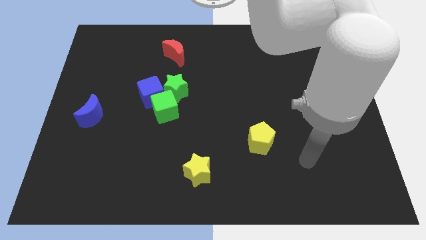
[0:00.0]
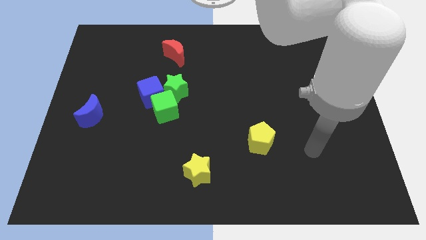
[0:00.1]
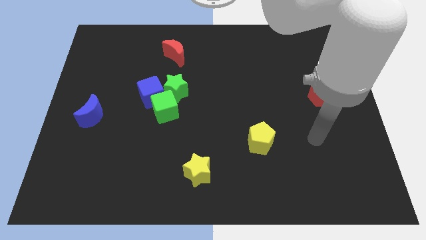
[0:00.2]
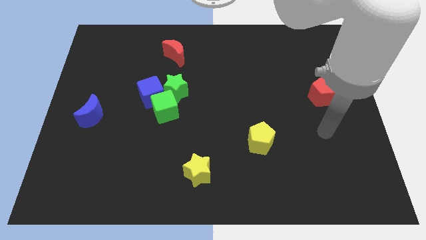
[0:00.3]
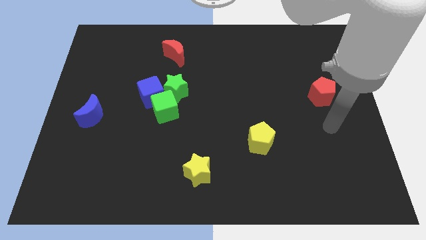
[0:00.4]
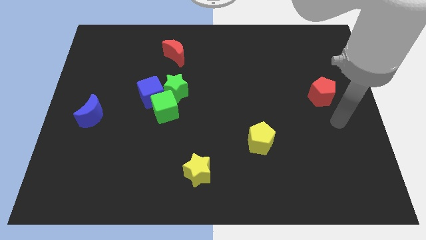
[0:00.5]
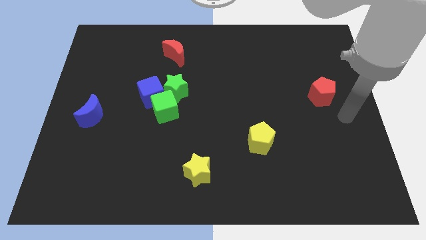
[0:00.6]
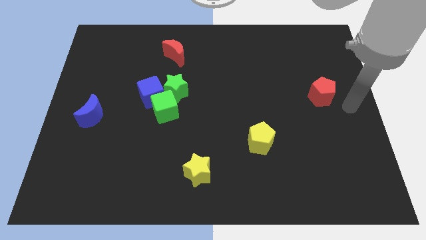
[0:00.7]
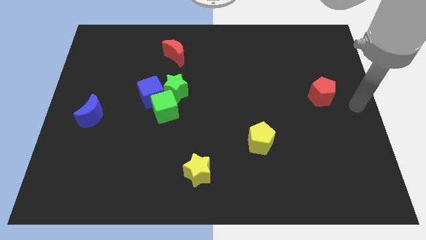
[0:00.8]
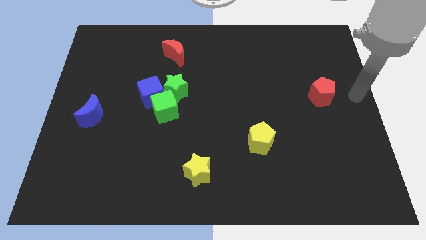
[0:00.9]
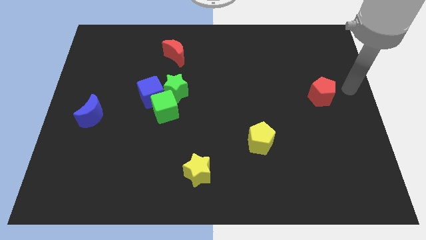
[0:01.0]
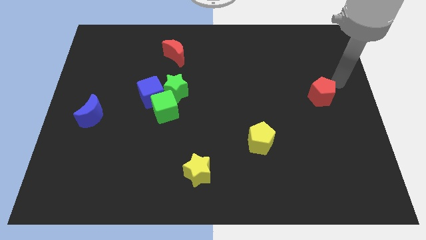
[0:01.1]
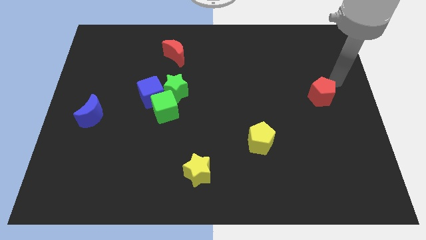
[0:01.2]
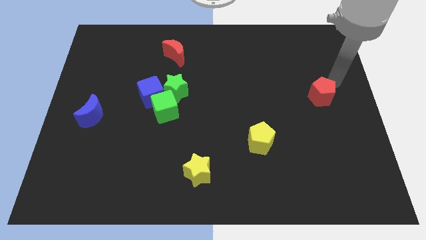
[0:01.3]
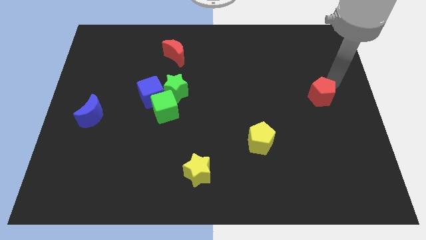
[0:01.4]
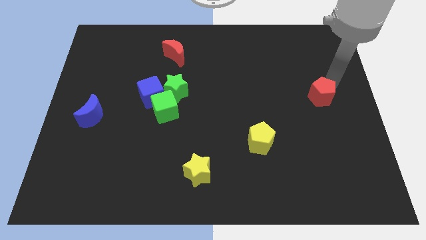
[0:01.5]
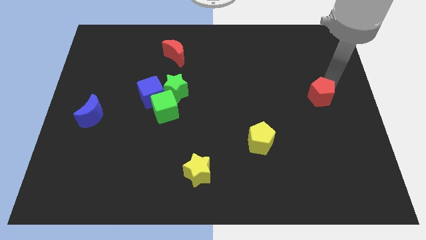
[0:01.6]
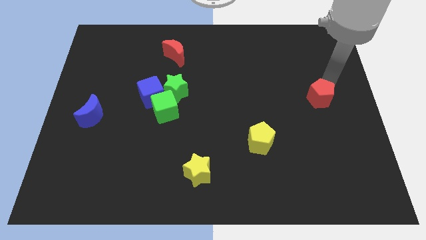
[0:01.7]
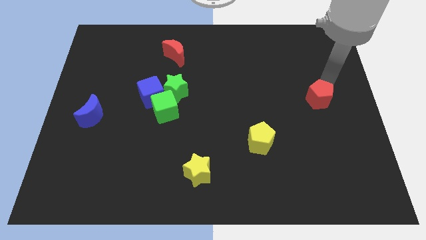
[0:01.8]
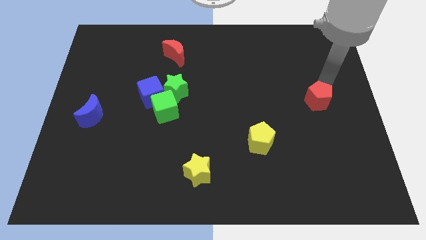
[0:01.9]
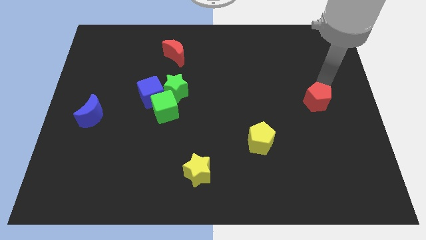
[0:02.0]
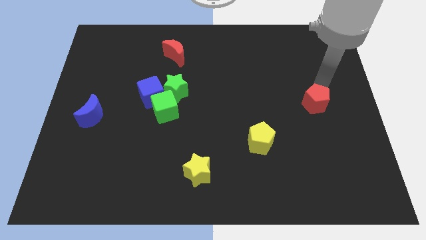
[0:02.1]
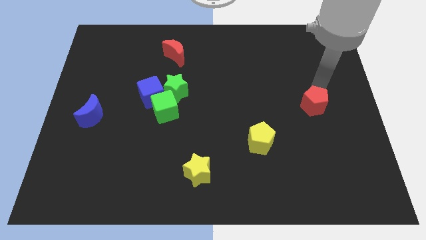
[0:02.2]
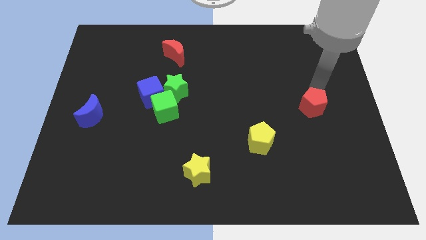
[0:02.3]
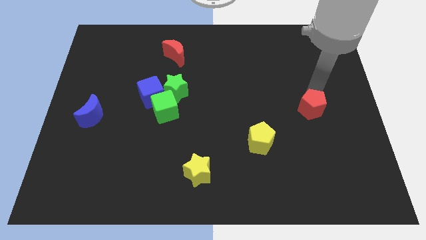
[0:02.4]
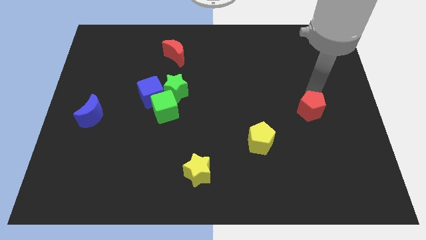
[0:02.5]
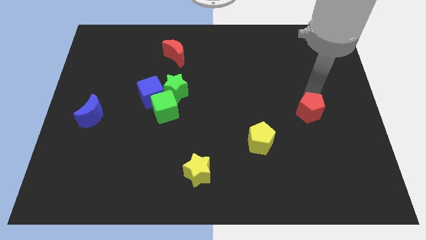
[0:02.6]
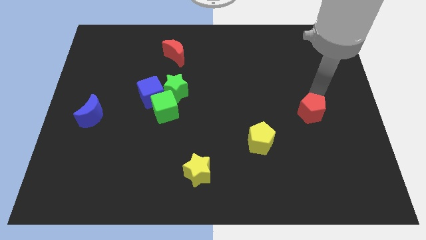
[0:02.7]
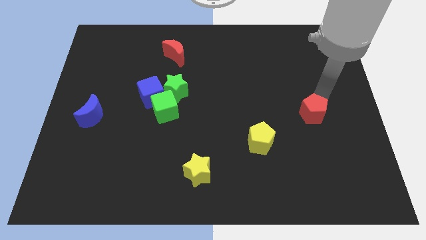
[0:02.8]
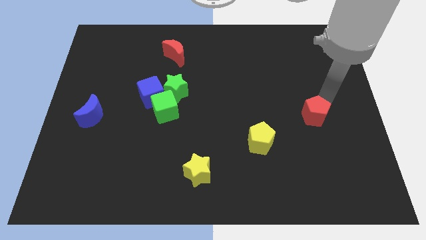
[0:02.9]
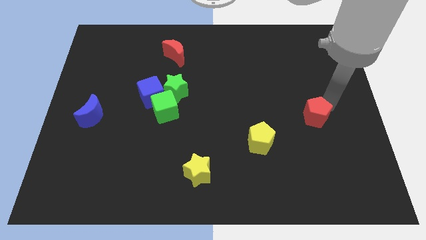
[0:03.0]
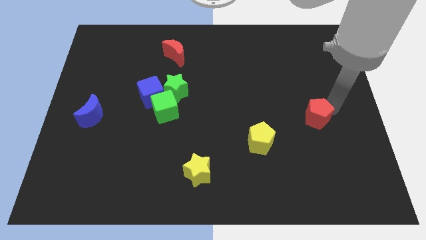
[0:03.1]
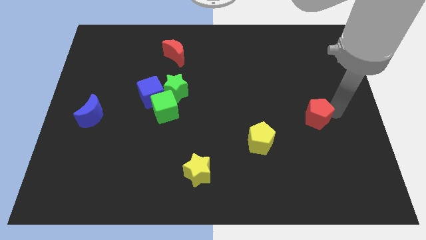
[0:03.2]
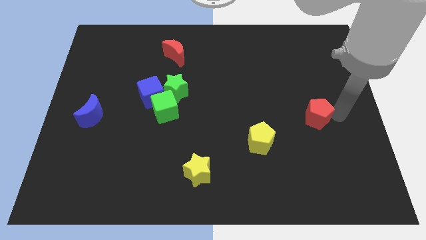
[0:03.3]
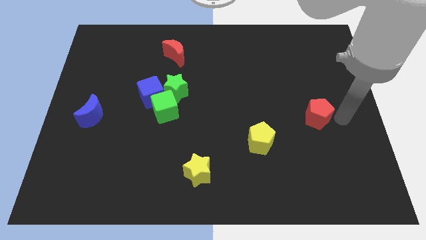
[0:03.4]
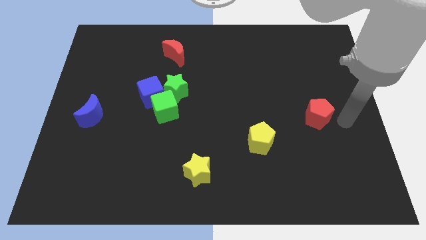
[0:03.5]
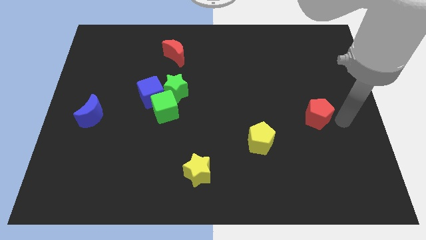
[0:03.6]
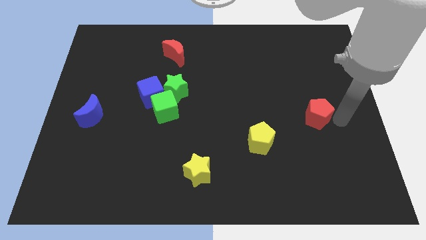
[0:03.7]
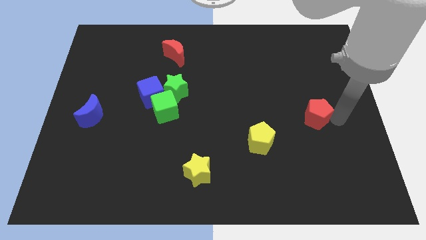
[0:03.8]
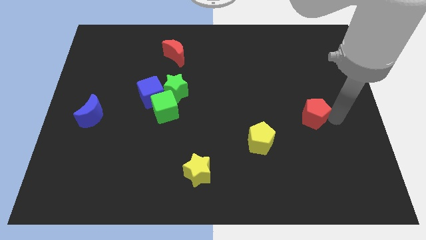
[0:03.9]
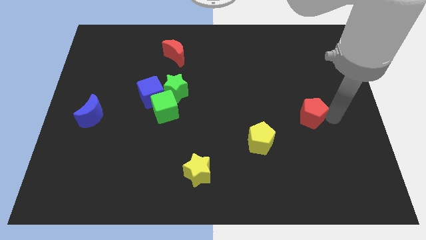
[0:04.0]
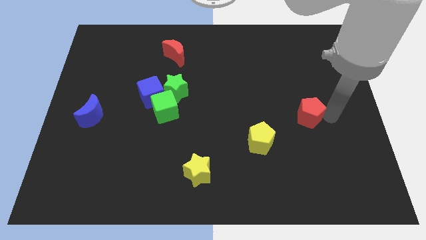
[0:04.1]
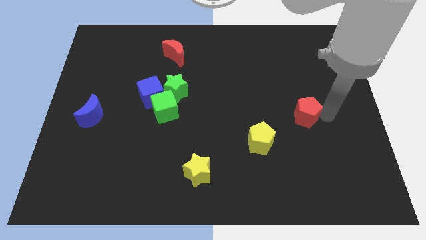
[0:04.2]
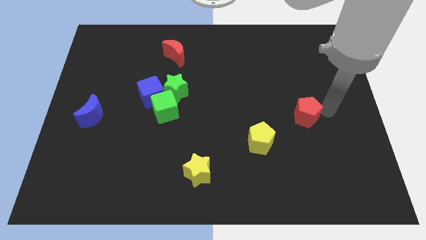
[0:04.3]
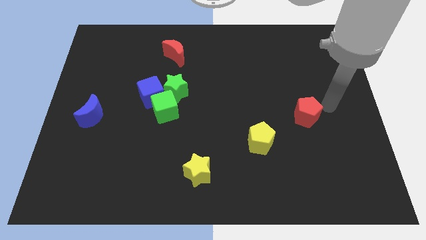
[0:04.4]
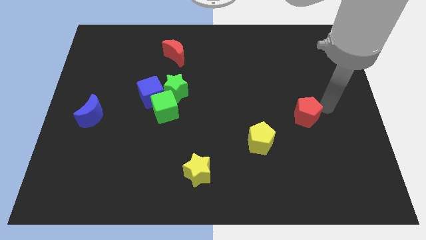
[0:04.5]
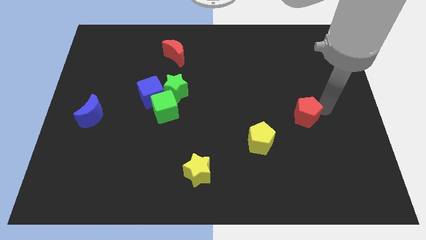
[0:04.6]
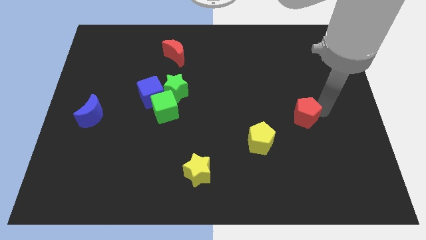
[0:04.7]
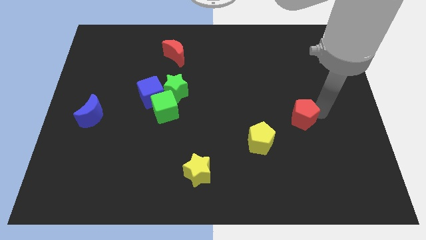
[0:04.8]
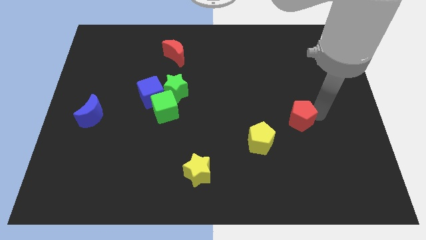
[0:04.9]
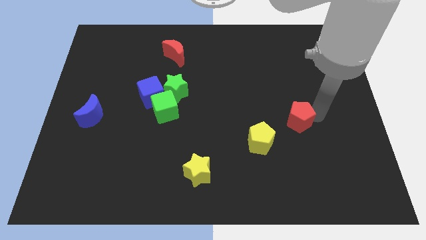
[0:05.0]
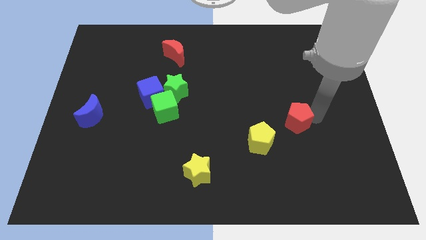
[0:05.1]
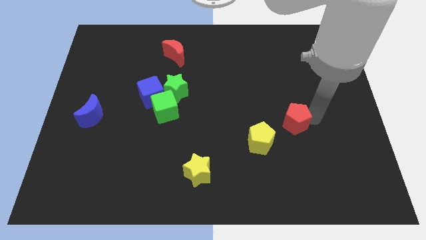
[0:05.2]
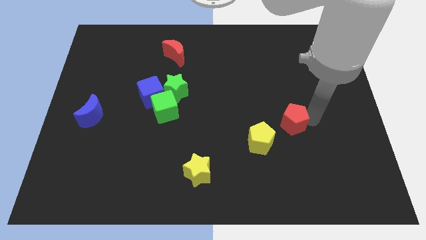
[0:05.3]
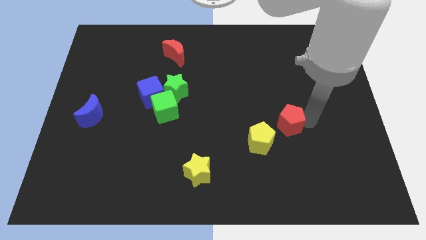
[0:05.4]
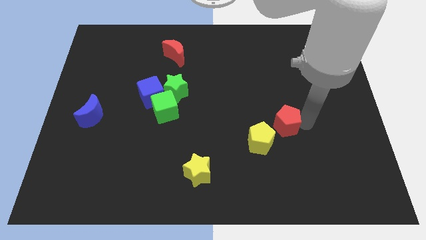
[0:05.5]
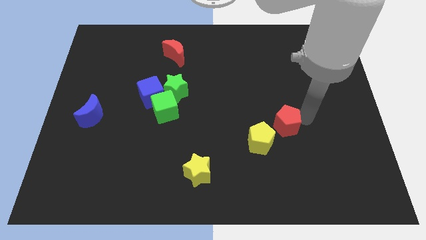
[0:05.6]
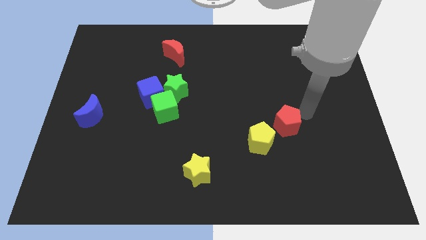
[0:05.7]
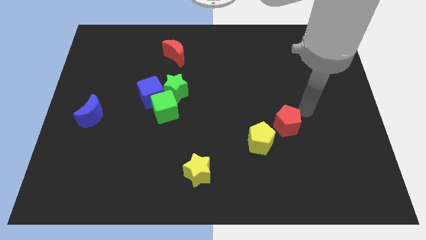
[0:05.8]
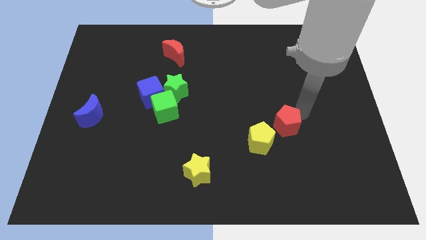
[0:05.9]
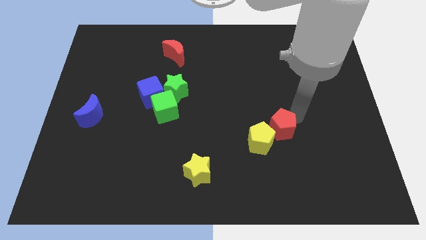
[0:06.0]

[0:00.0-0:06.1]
push the red pentagon to the yellow pentagon

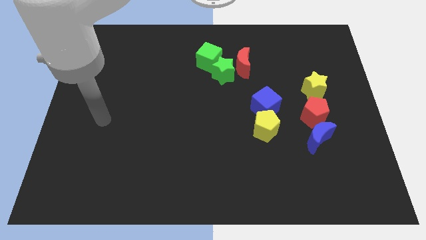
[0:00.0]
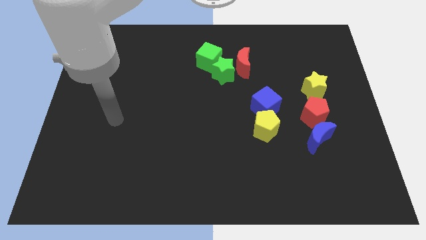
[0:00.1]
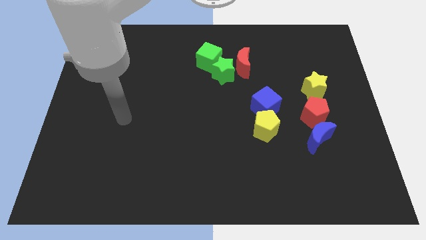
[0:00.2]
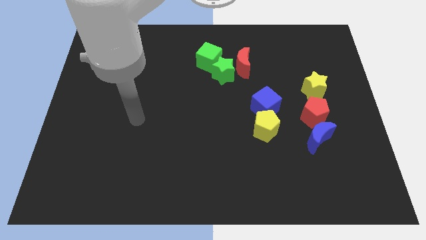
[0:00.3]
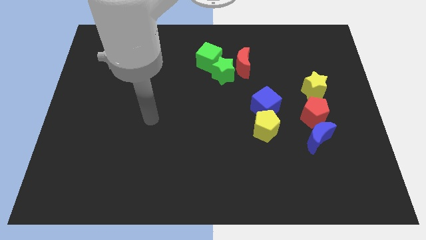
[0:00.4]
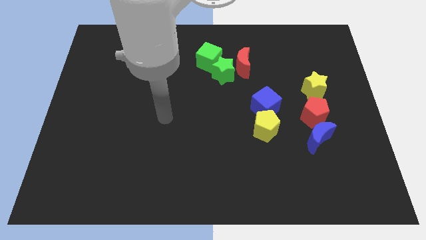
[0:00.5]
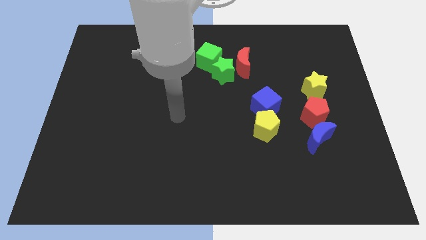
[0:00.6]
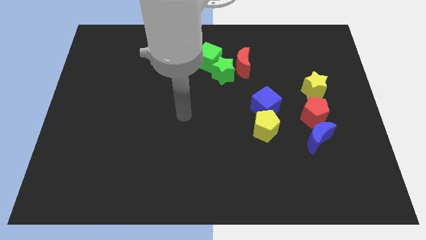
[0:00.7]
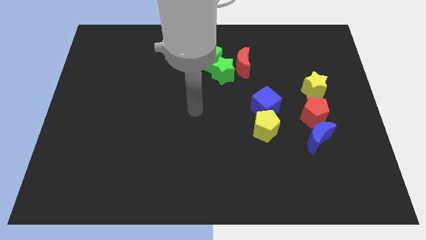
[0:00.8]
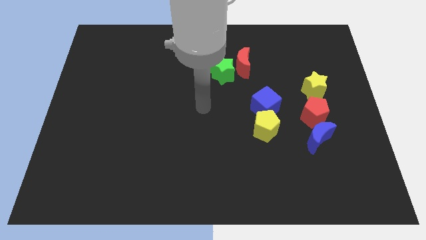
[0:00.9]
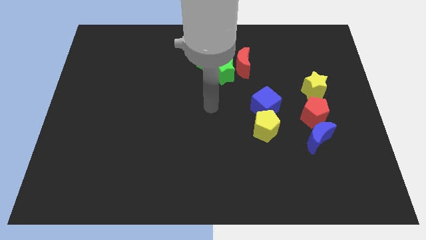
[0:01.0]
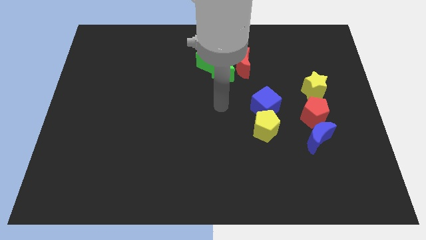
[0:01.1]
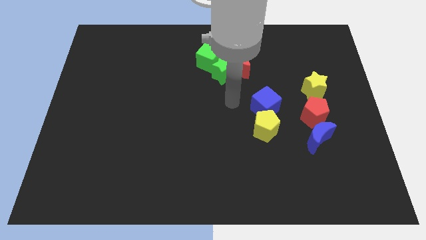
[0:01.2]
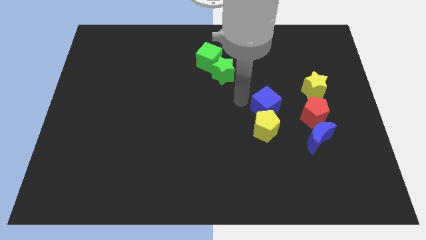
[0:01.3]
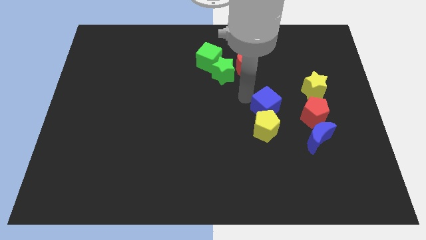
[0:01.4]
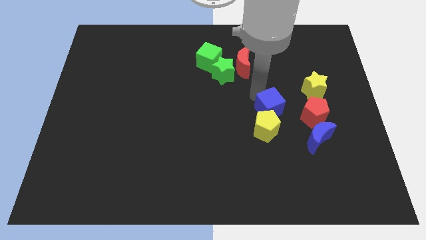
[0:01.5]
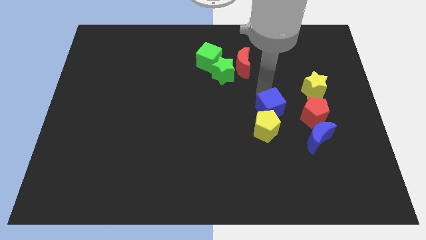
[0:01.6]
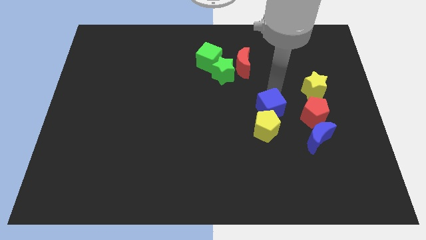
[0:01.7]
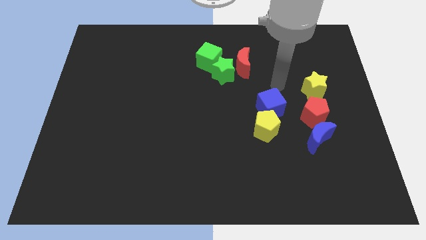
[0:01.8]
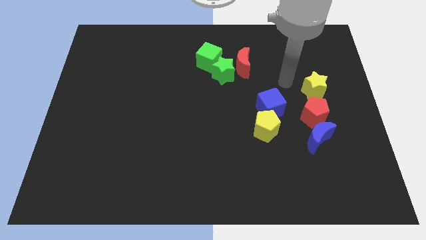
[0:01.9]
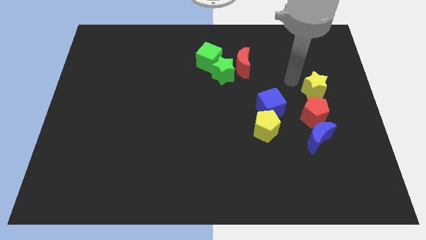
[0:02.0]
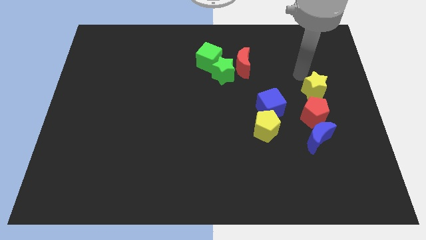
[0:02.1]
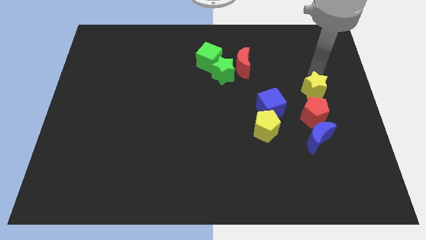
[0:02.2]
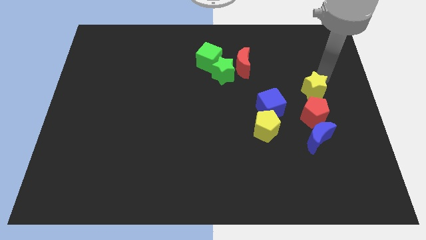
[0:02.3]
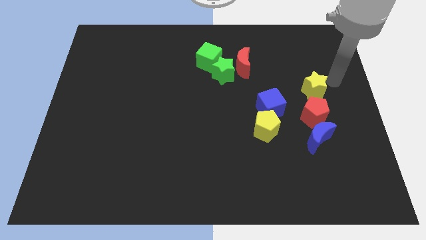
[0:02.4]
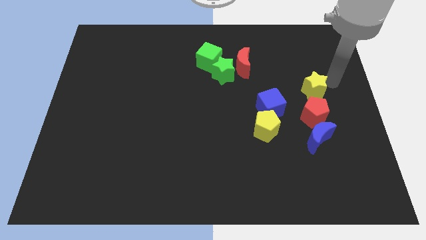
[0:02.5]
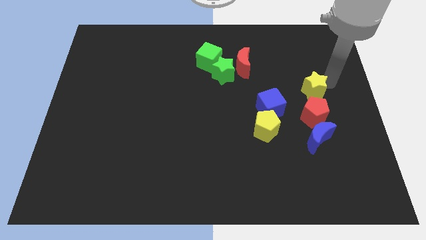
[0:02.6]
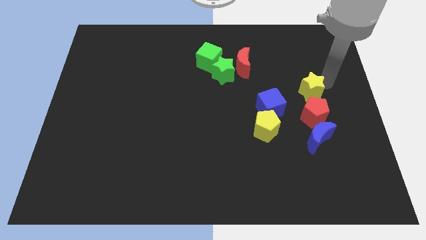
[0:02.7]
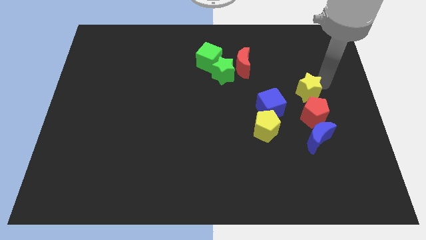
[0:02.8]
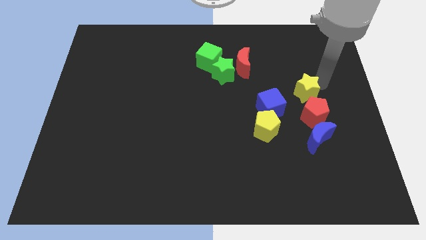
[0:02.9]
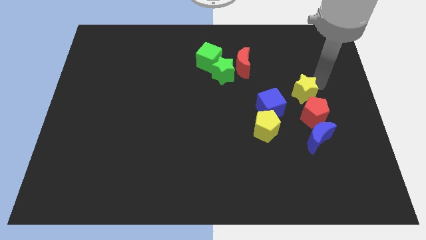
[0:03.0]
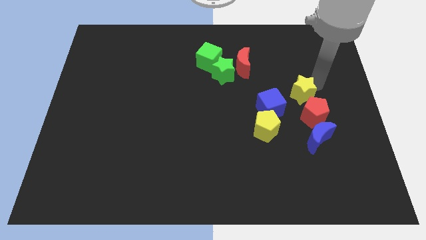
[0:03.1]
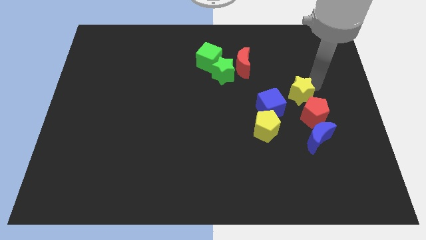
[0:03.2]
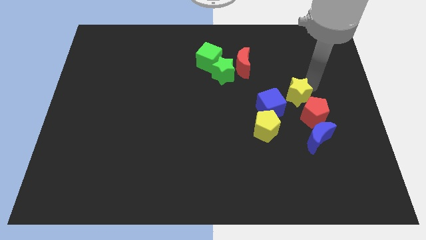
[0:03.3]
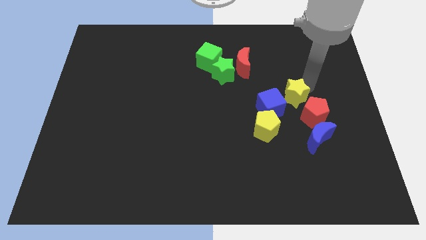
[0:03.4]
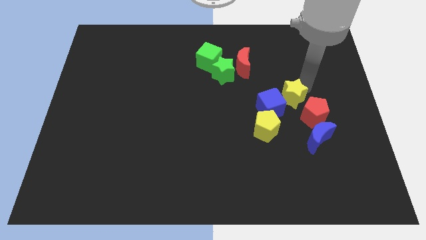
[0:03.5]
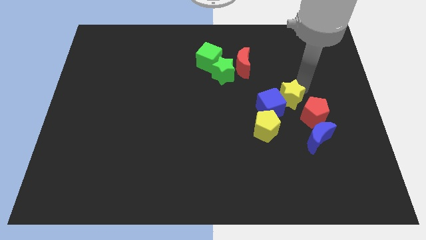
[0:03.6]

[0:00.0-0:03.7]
push the yellow star next to the blue cube
